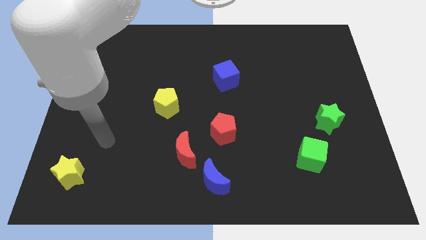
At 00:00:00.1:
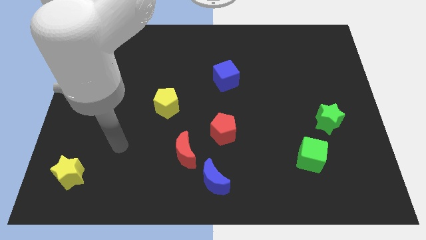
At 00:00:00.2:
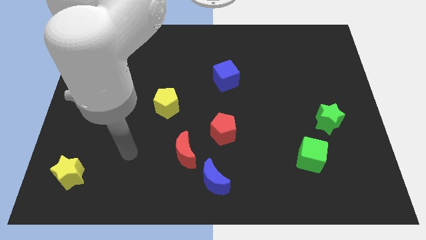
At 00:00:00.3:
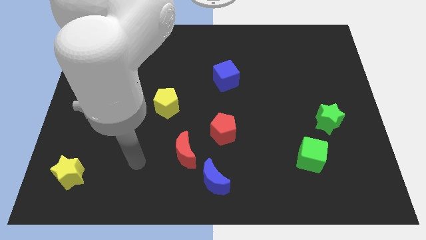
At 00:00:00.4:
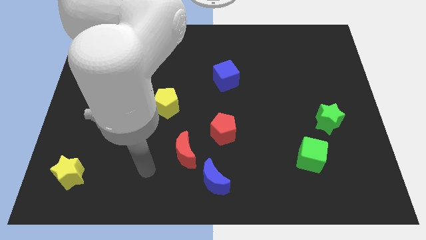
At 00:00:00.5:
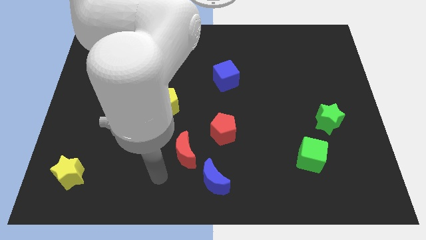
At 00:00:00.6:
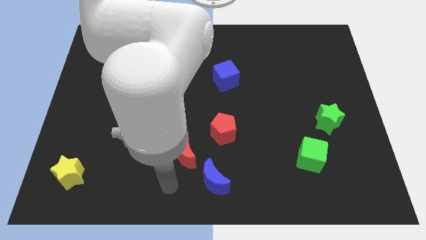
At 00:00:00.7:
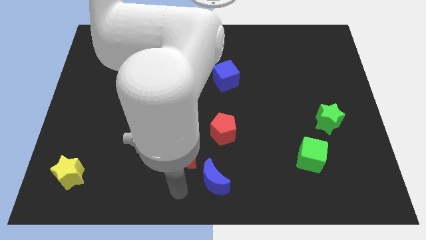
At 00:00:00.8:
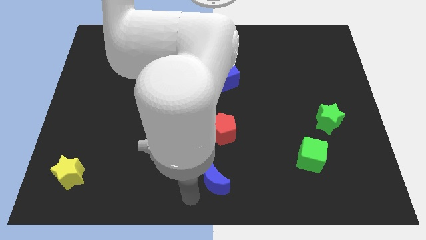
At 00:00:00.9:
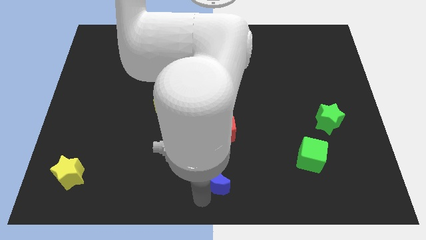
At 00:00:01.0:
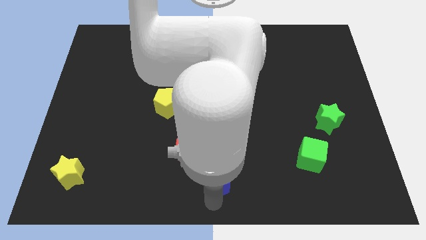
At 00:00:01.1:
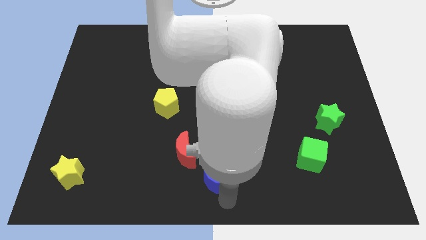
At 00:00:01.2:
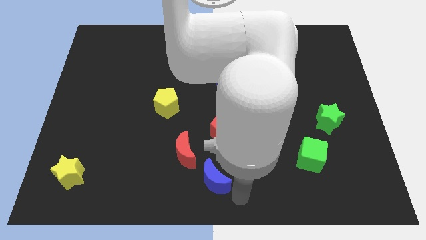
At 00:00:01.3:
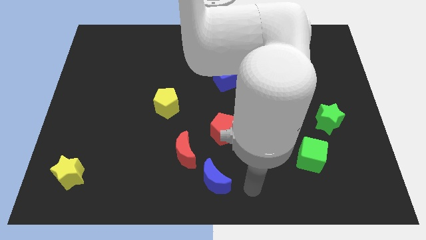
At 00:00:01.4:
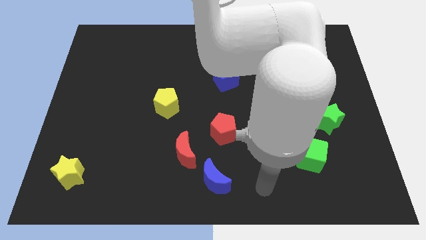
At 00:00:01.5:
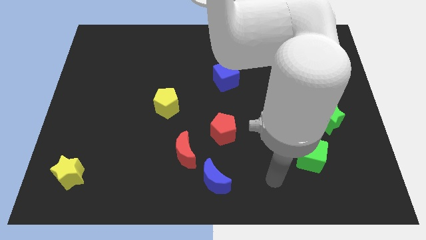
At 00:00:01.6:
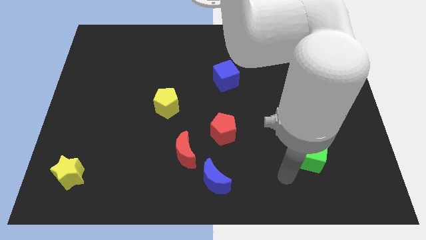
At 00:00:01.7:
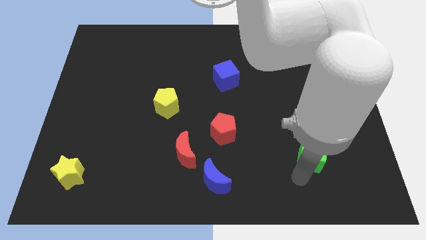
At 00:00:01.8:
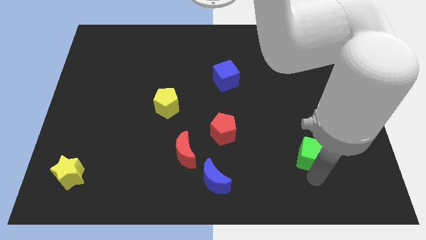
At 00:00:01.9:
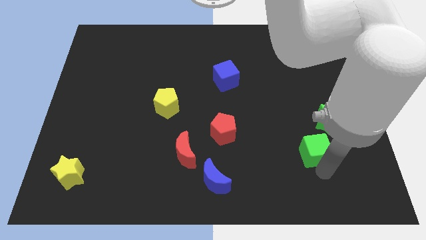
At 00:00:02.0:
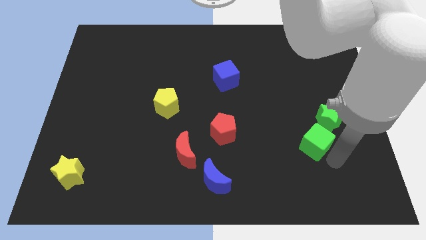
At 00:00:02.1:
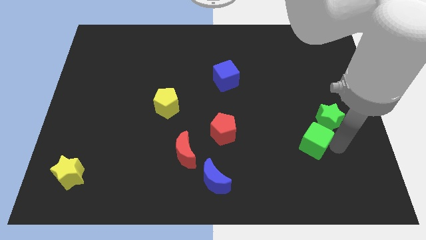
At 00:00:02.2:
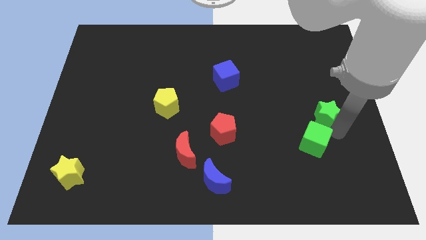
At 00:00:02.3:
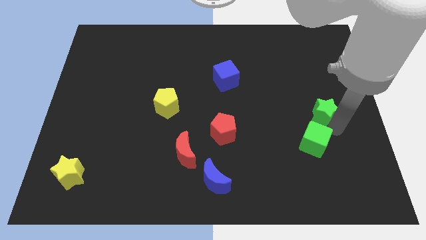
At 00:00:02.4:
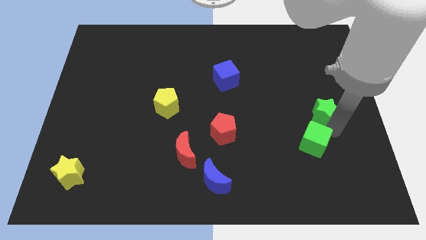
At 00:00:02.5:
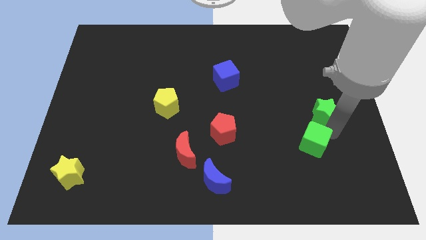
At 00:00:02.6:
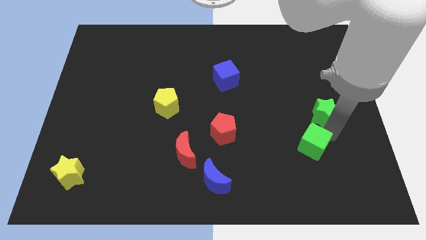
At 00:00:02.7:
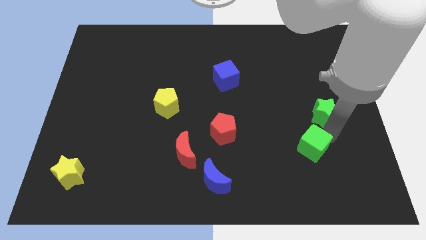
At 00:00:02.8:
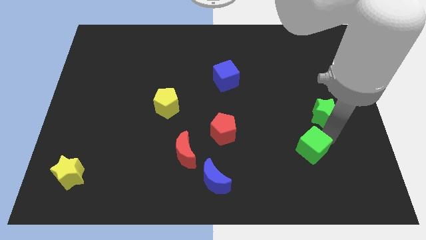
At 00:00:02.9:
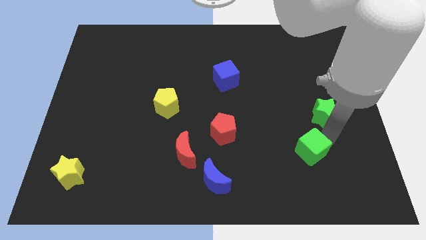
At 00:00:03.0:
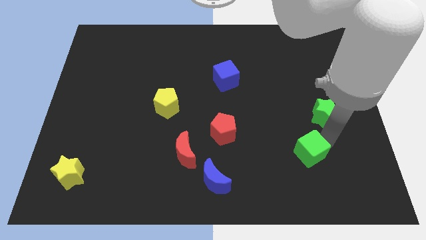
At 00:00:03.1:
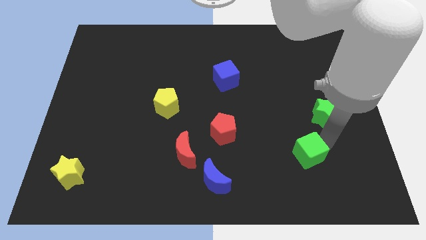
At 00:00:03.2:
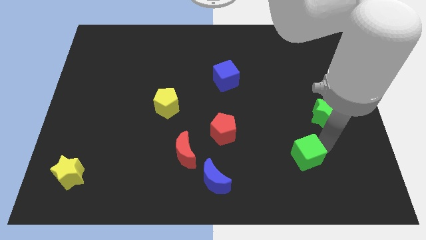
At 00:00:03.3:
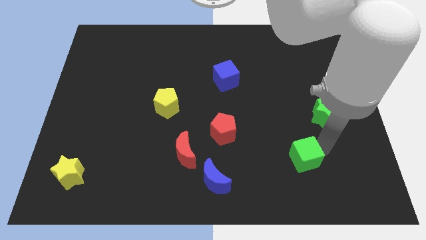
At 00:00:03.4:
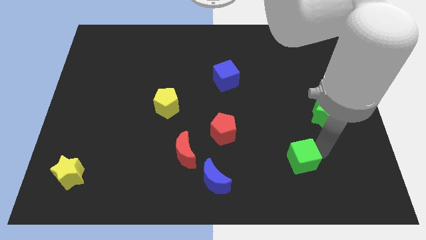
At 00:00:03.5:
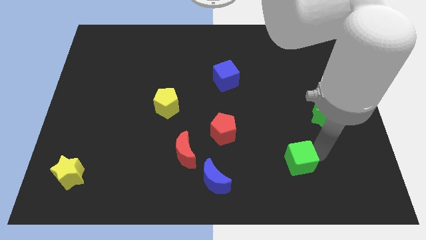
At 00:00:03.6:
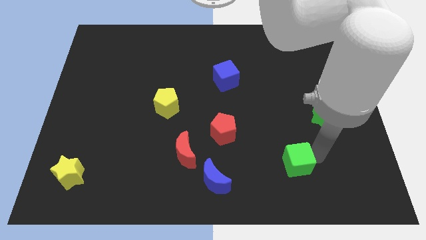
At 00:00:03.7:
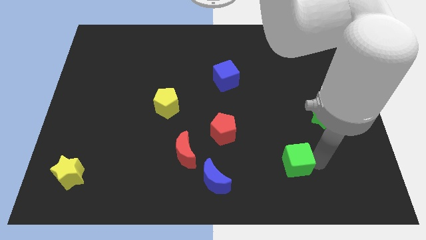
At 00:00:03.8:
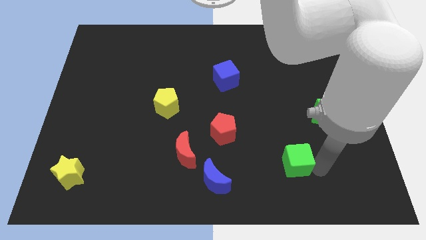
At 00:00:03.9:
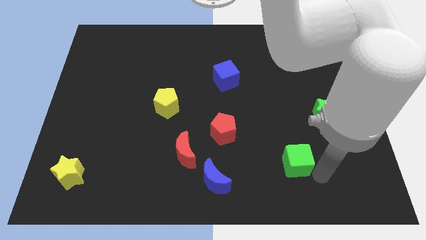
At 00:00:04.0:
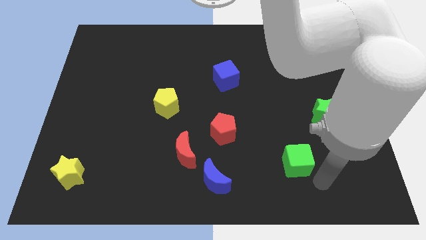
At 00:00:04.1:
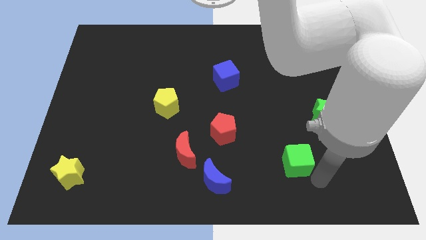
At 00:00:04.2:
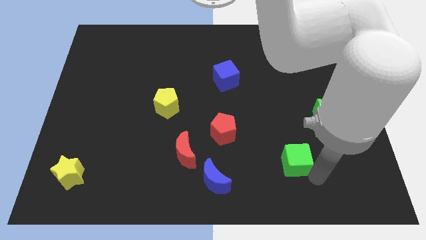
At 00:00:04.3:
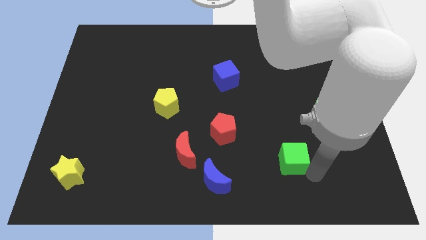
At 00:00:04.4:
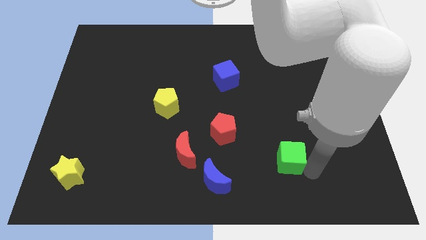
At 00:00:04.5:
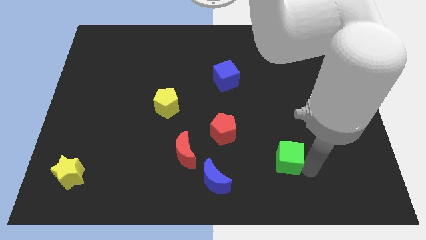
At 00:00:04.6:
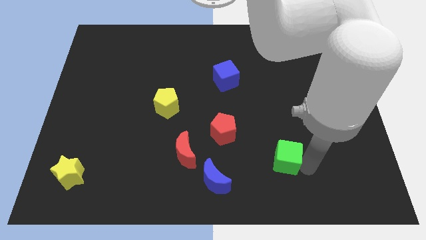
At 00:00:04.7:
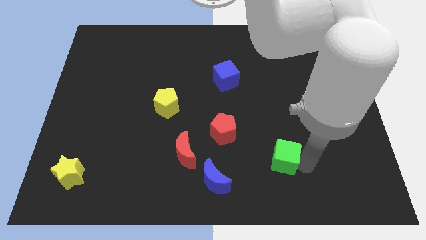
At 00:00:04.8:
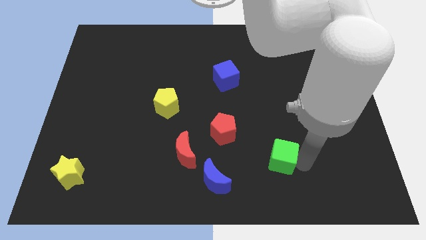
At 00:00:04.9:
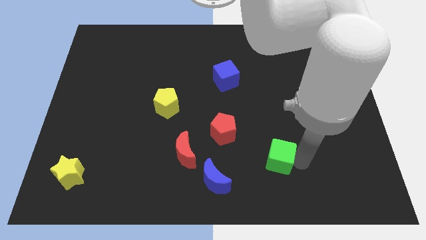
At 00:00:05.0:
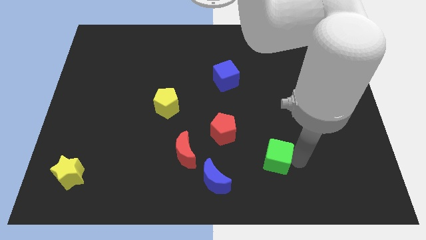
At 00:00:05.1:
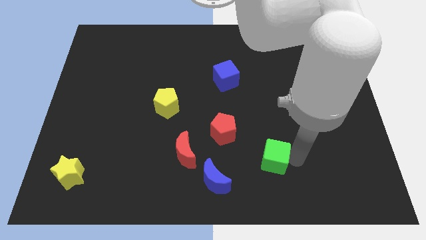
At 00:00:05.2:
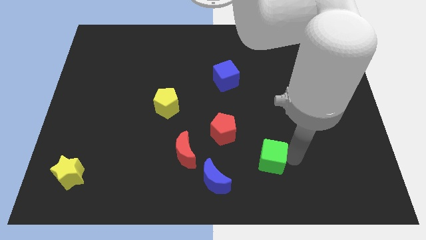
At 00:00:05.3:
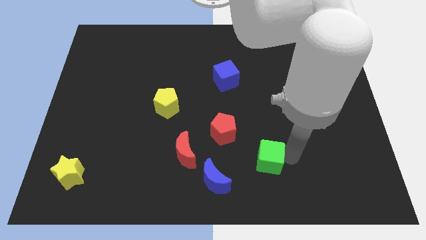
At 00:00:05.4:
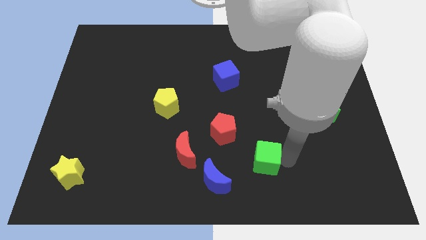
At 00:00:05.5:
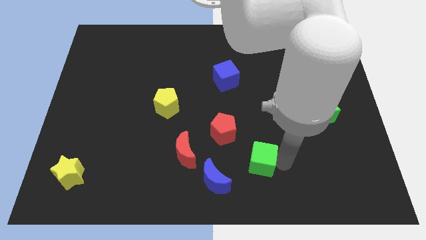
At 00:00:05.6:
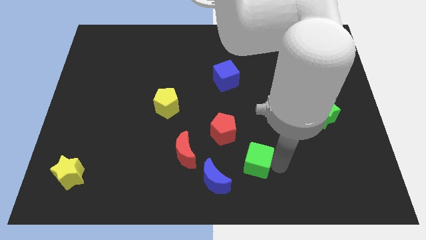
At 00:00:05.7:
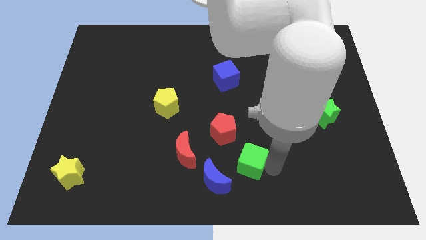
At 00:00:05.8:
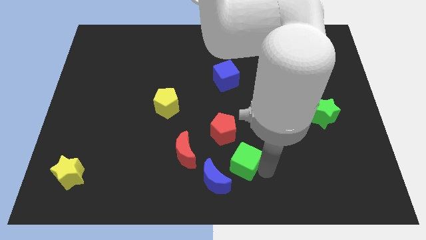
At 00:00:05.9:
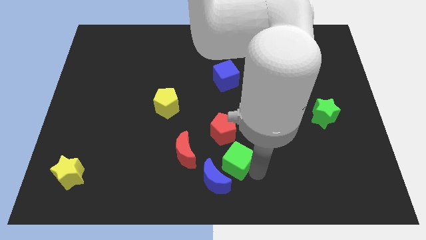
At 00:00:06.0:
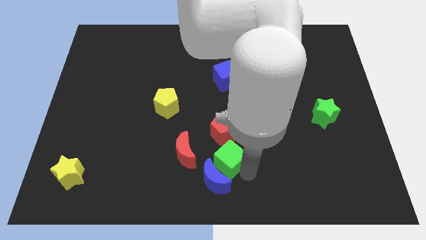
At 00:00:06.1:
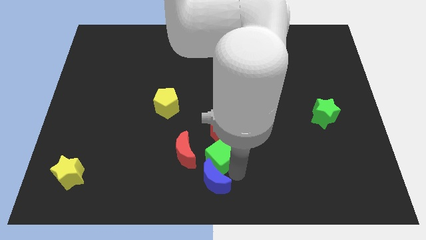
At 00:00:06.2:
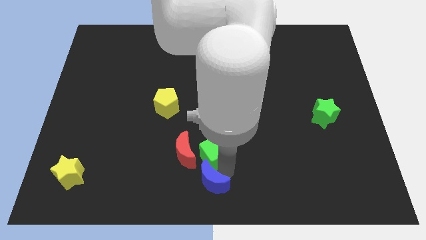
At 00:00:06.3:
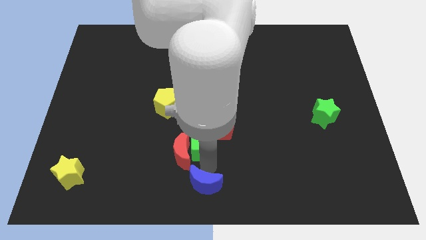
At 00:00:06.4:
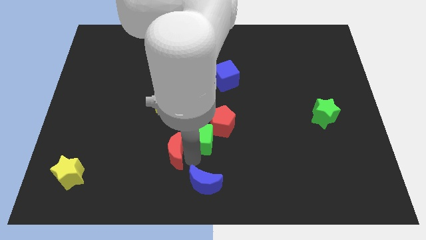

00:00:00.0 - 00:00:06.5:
move the green cube to the red pentagon

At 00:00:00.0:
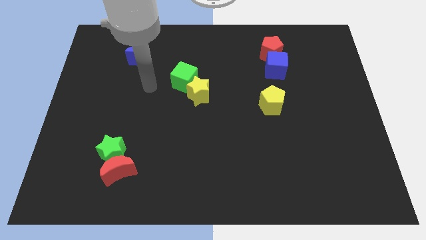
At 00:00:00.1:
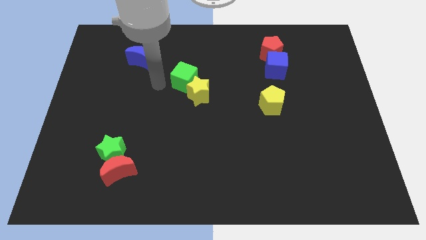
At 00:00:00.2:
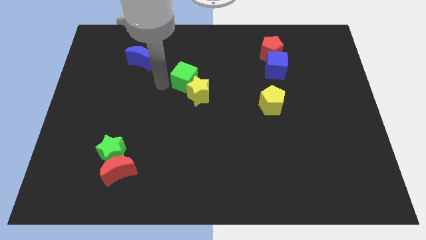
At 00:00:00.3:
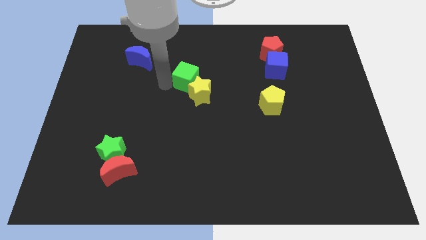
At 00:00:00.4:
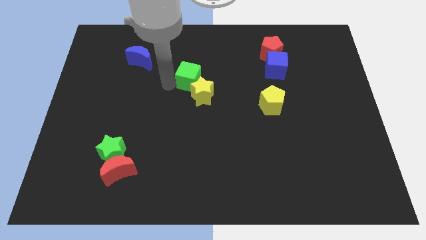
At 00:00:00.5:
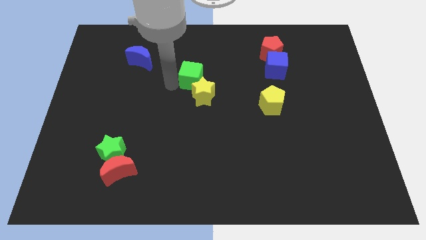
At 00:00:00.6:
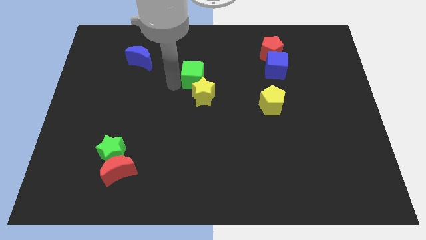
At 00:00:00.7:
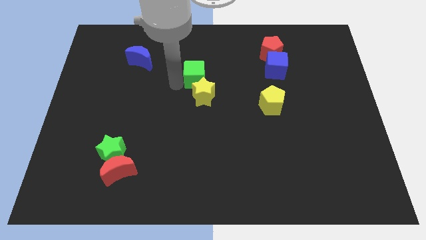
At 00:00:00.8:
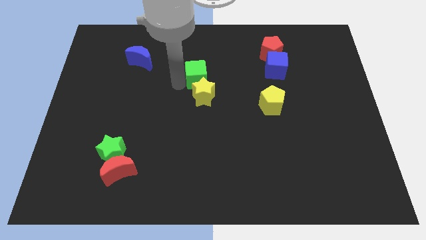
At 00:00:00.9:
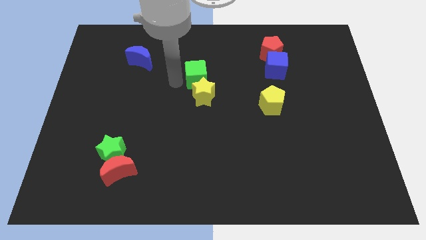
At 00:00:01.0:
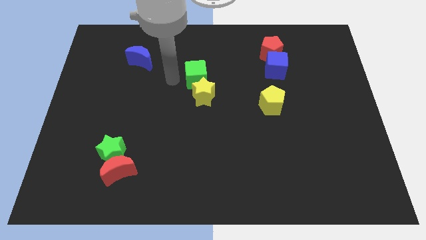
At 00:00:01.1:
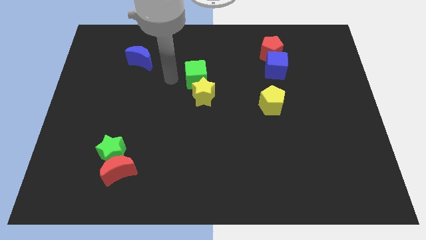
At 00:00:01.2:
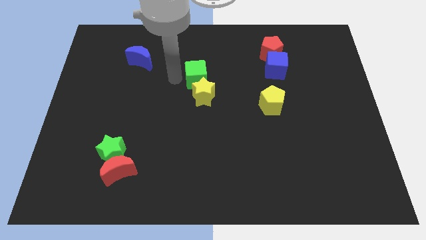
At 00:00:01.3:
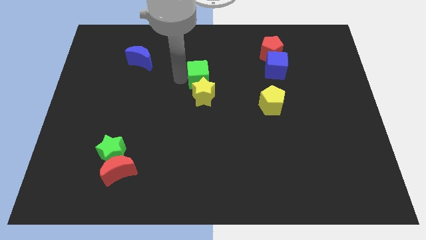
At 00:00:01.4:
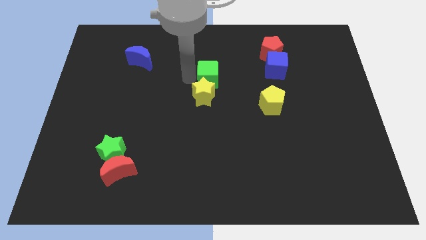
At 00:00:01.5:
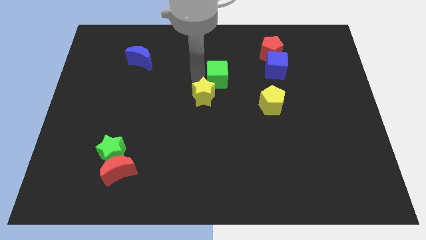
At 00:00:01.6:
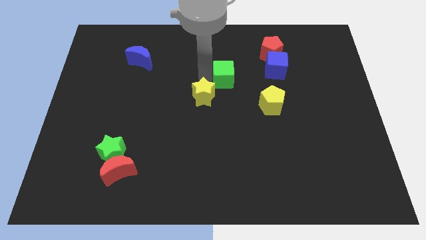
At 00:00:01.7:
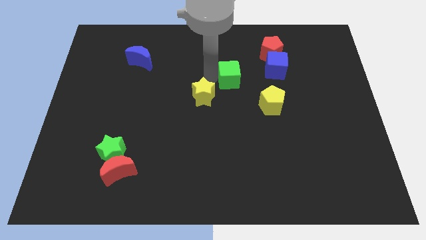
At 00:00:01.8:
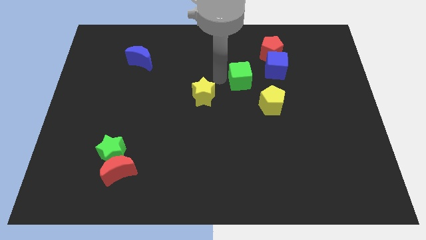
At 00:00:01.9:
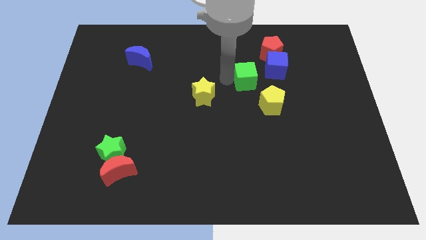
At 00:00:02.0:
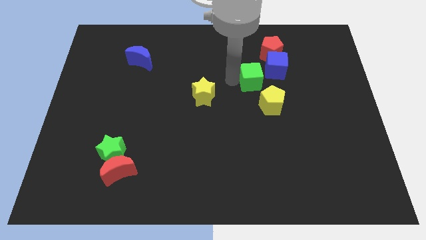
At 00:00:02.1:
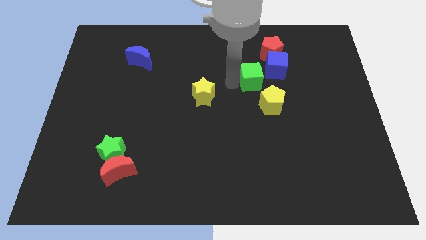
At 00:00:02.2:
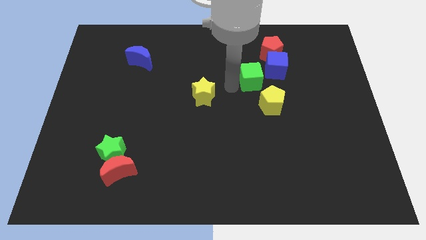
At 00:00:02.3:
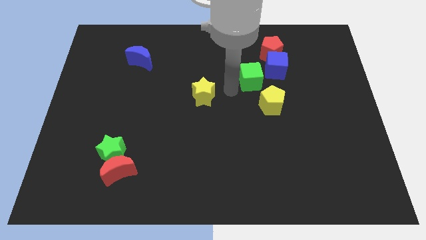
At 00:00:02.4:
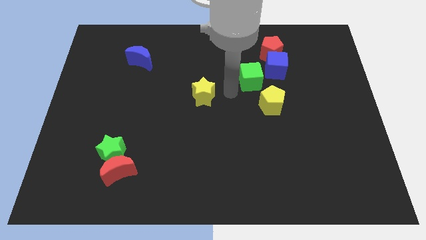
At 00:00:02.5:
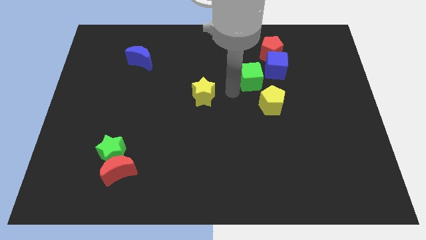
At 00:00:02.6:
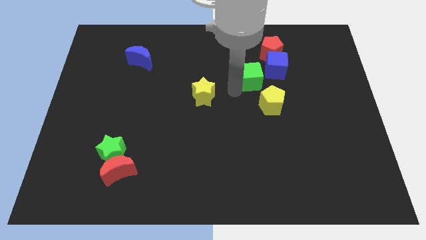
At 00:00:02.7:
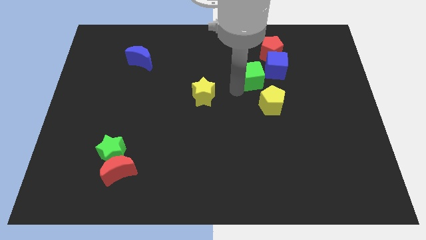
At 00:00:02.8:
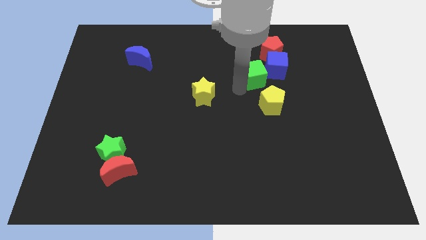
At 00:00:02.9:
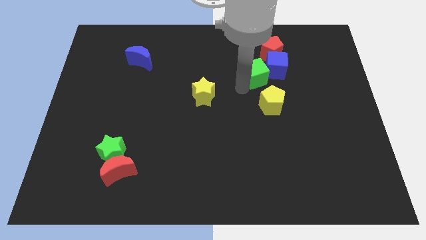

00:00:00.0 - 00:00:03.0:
push the green cube to the blue cube
